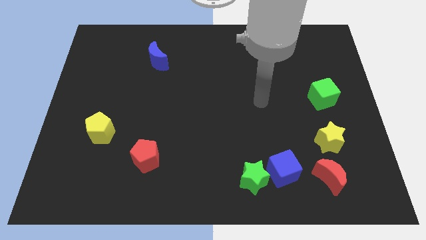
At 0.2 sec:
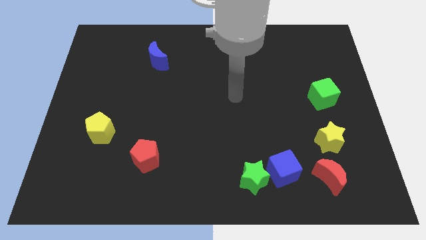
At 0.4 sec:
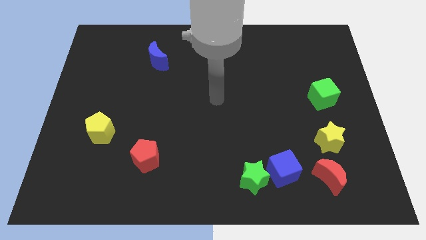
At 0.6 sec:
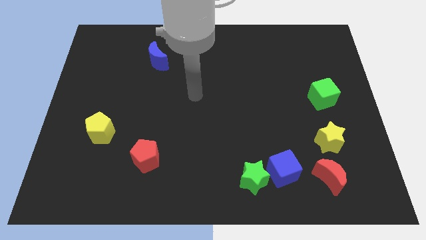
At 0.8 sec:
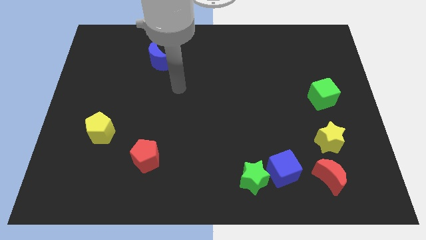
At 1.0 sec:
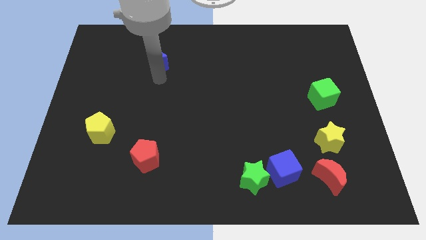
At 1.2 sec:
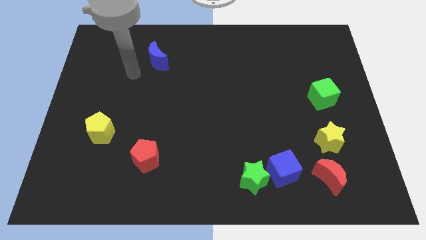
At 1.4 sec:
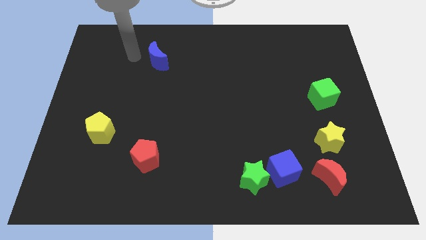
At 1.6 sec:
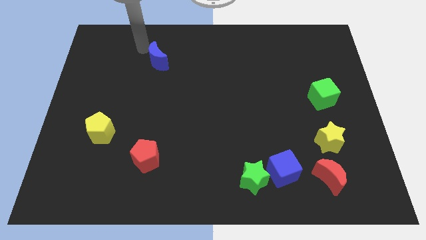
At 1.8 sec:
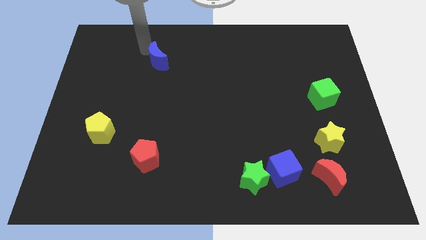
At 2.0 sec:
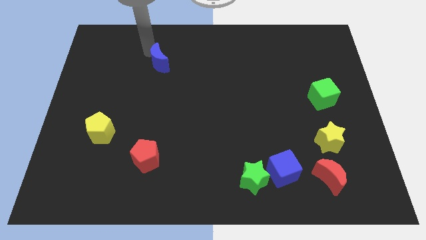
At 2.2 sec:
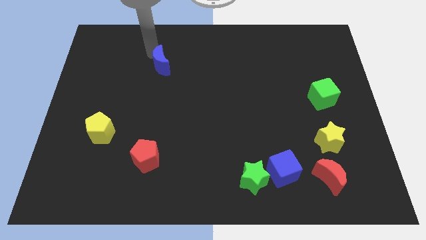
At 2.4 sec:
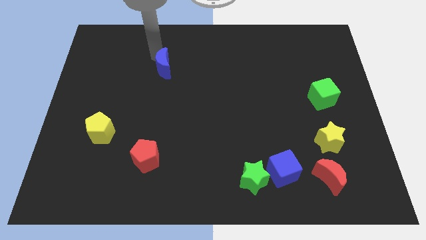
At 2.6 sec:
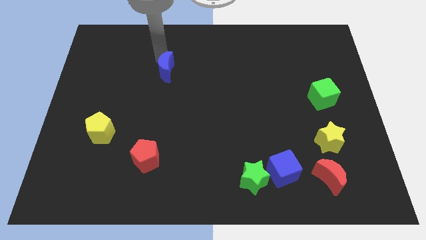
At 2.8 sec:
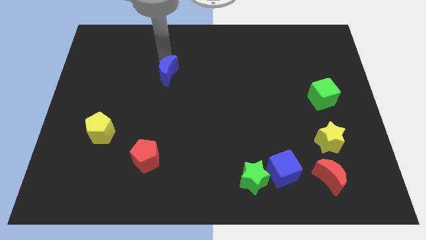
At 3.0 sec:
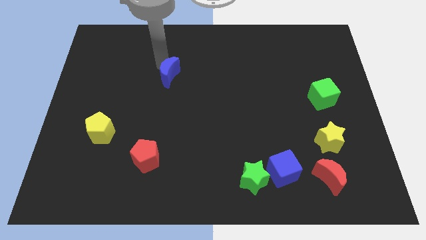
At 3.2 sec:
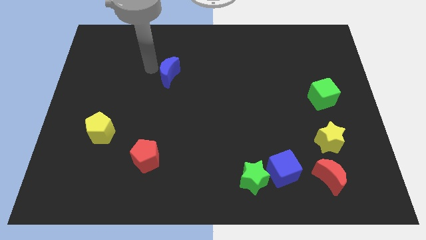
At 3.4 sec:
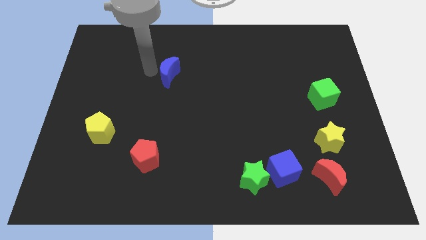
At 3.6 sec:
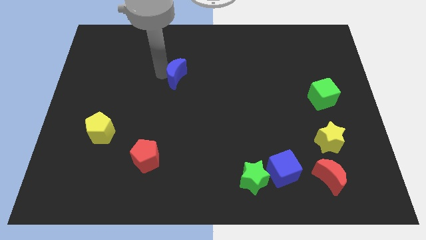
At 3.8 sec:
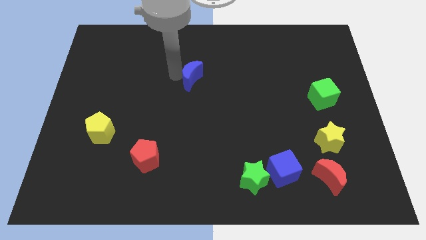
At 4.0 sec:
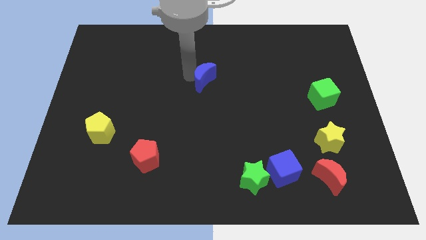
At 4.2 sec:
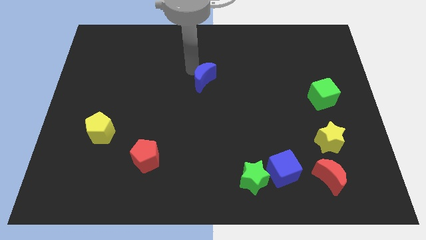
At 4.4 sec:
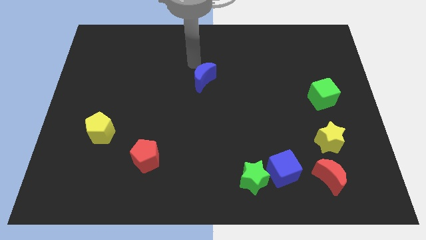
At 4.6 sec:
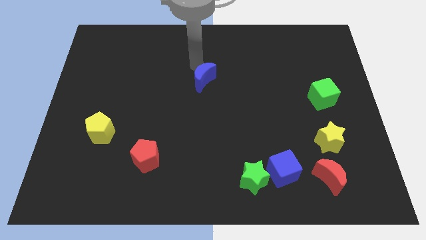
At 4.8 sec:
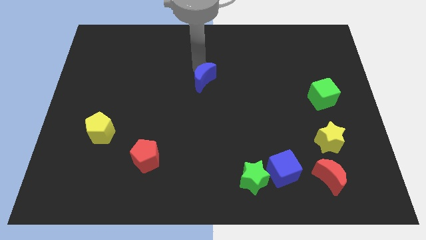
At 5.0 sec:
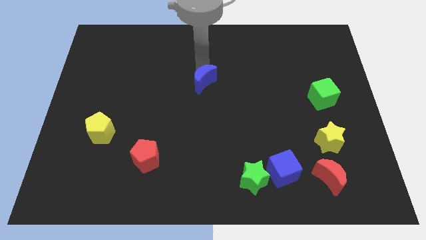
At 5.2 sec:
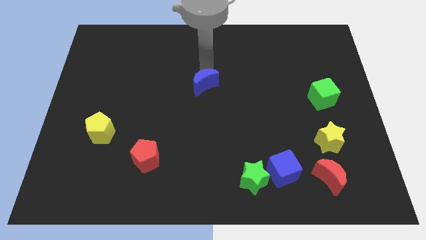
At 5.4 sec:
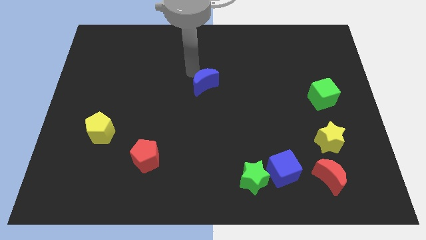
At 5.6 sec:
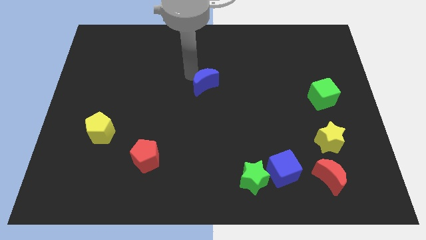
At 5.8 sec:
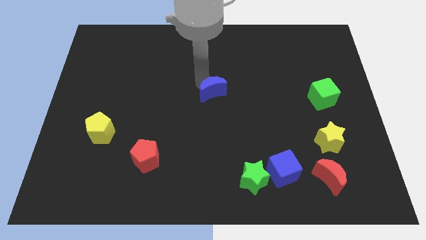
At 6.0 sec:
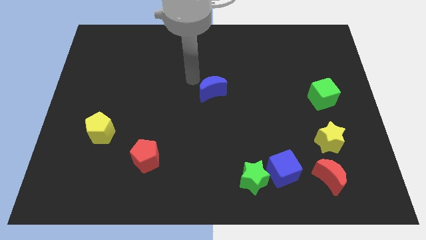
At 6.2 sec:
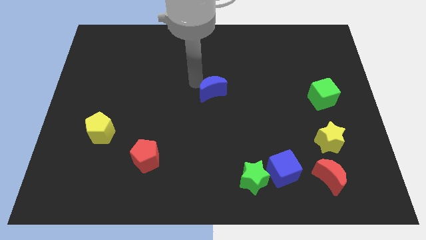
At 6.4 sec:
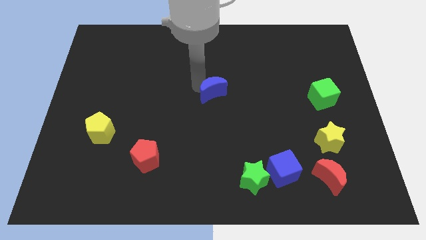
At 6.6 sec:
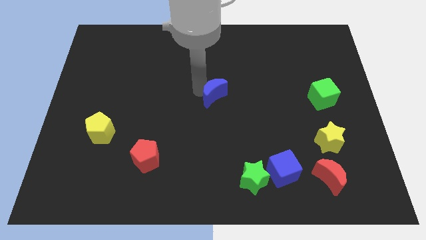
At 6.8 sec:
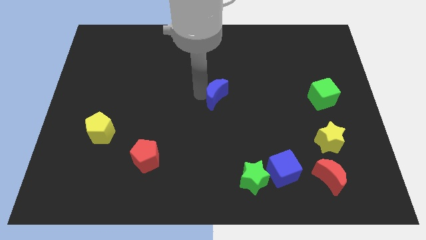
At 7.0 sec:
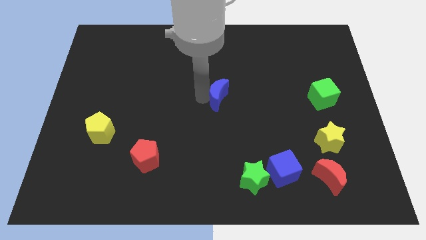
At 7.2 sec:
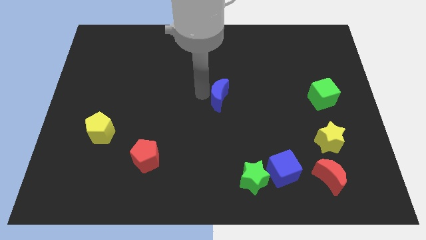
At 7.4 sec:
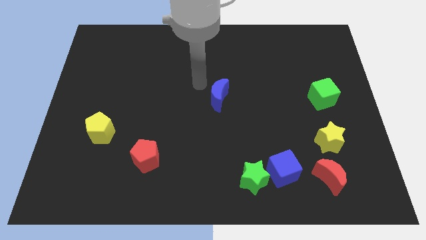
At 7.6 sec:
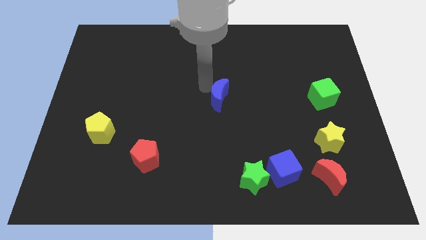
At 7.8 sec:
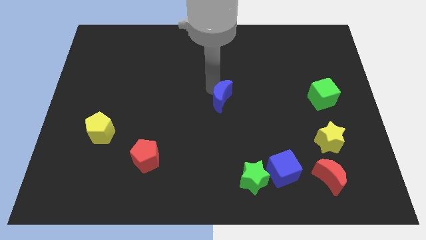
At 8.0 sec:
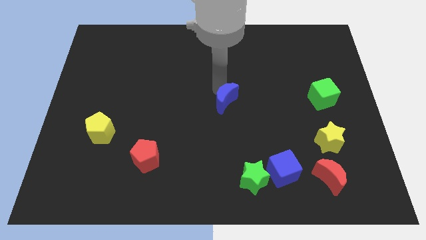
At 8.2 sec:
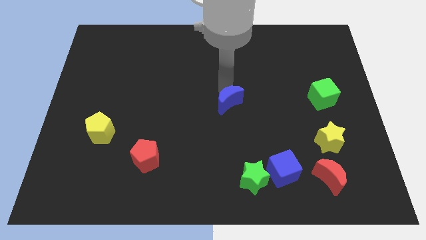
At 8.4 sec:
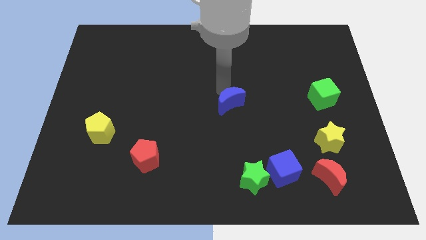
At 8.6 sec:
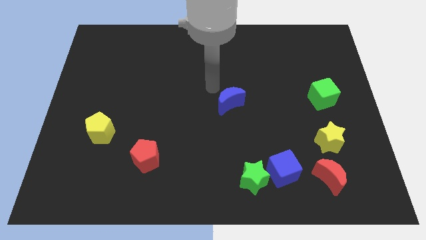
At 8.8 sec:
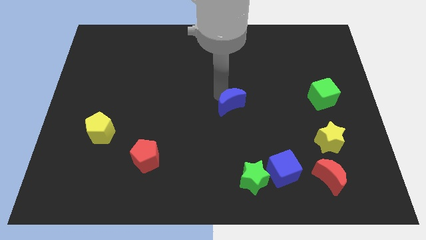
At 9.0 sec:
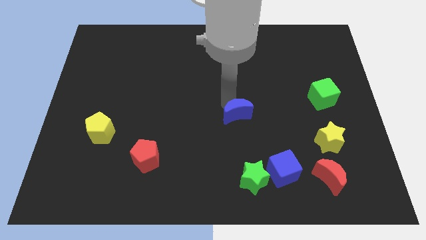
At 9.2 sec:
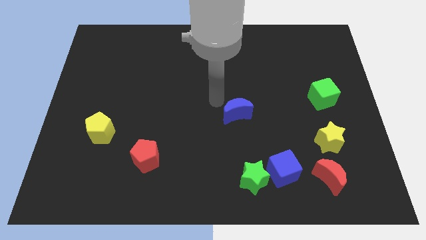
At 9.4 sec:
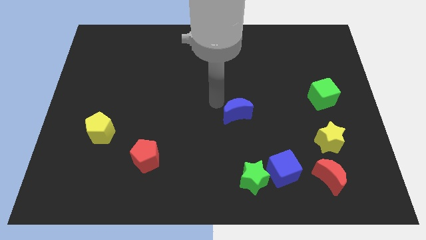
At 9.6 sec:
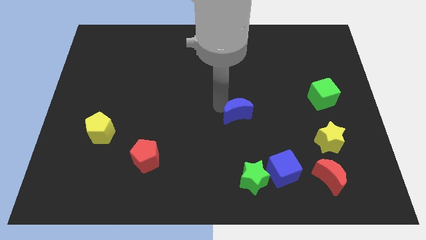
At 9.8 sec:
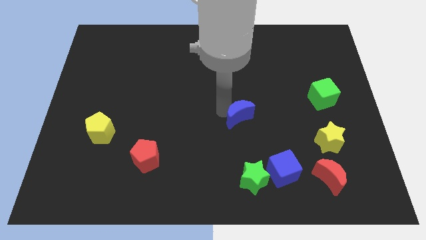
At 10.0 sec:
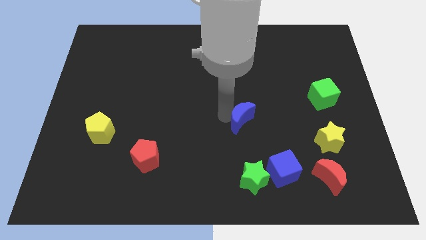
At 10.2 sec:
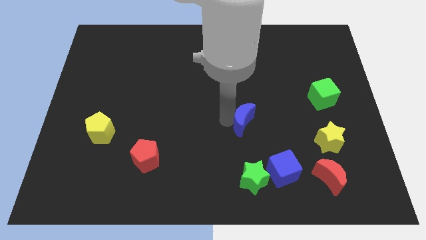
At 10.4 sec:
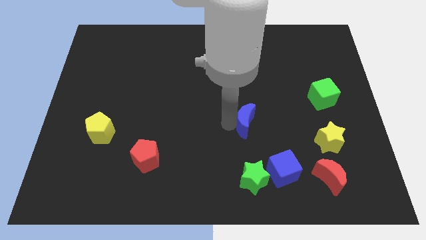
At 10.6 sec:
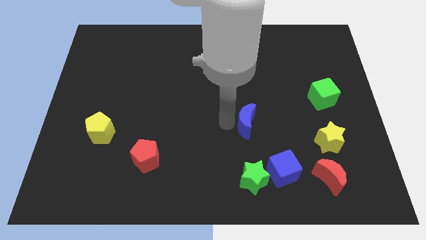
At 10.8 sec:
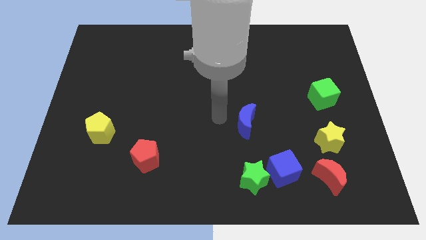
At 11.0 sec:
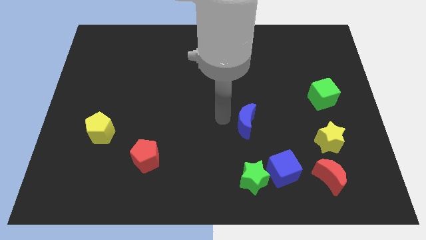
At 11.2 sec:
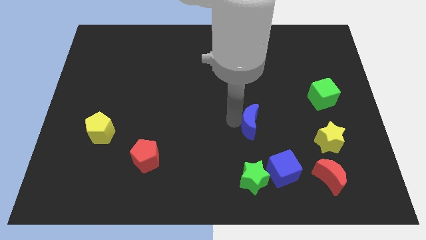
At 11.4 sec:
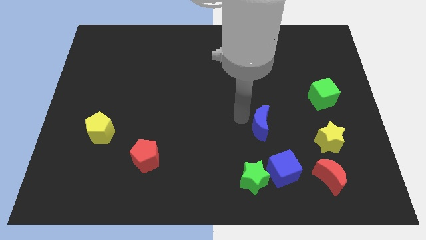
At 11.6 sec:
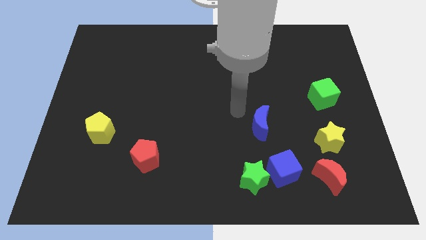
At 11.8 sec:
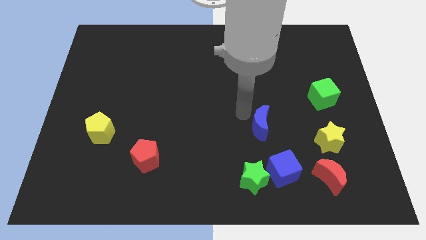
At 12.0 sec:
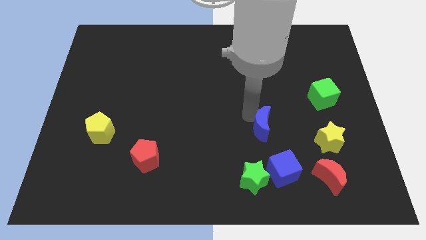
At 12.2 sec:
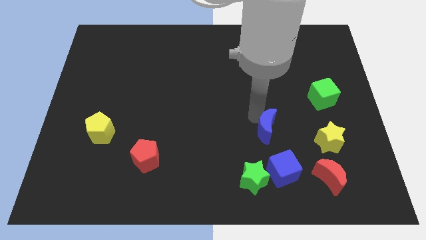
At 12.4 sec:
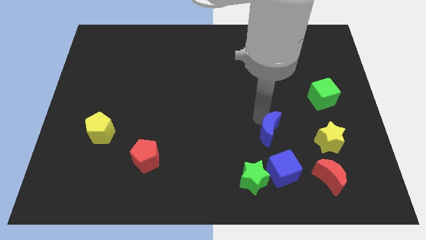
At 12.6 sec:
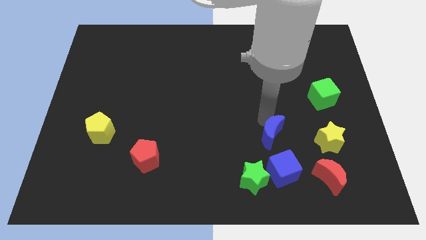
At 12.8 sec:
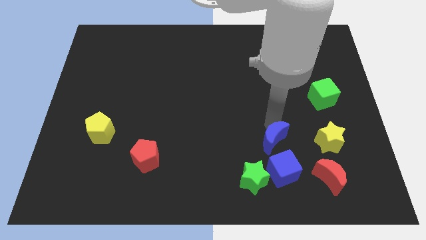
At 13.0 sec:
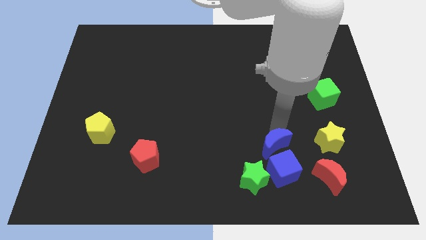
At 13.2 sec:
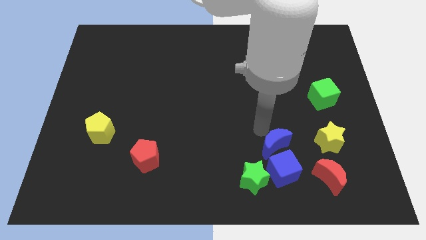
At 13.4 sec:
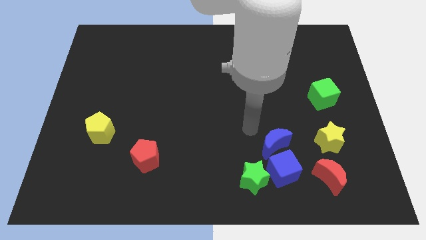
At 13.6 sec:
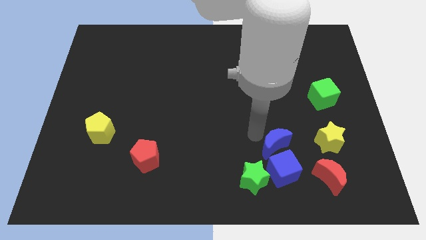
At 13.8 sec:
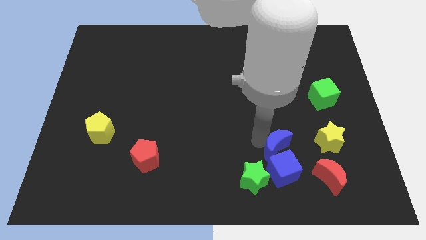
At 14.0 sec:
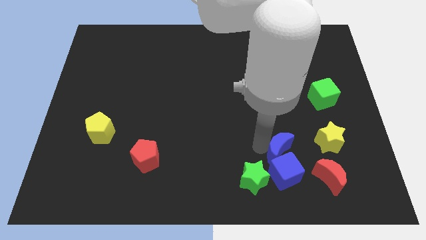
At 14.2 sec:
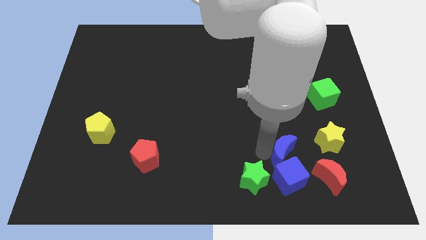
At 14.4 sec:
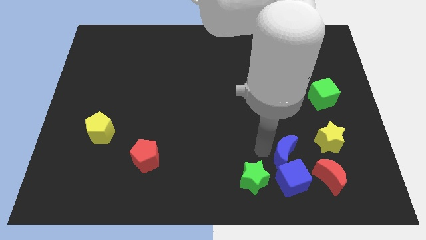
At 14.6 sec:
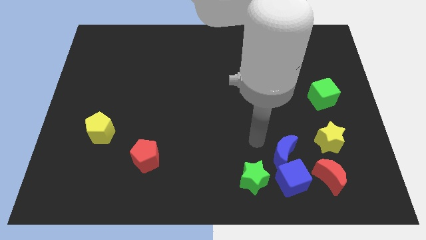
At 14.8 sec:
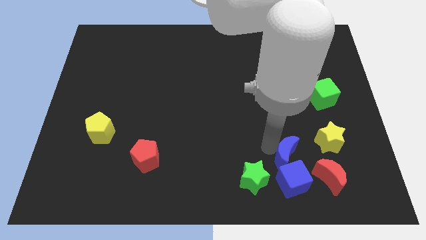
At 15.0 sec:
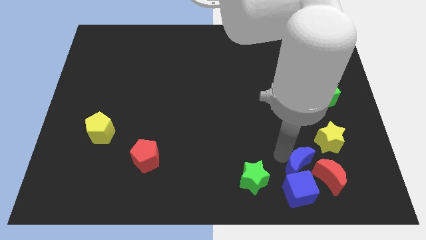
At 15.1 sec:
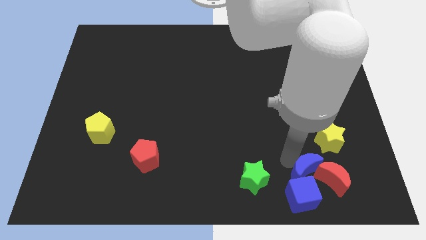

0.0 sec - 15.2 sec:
put the blue moon towards the red moon
